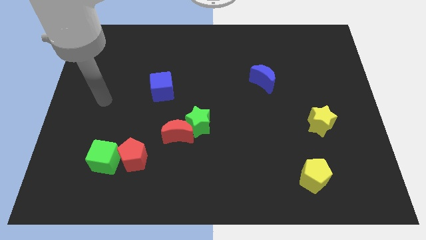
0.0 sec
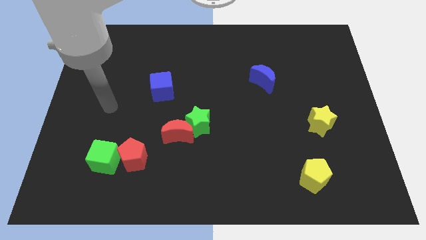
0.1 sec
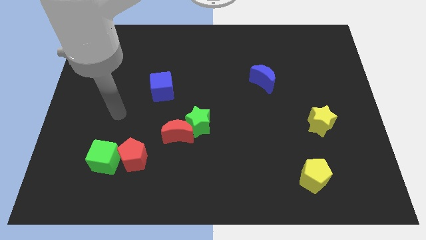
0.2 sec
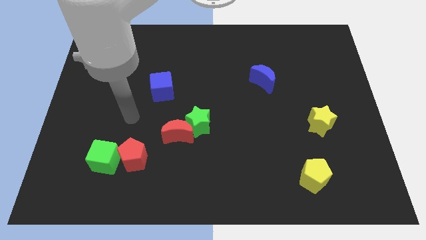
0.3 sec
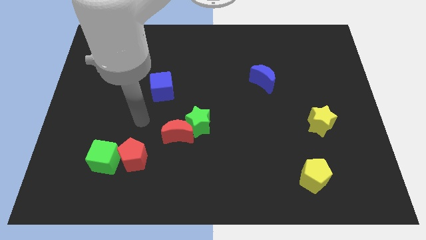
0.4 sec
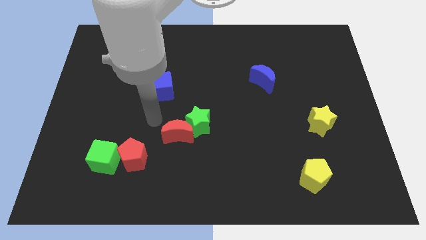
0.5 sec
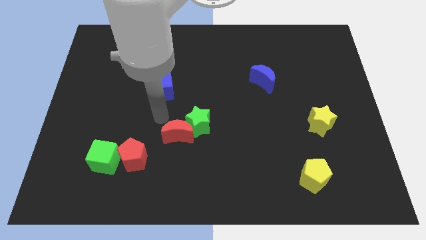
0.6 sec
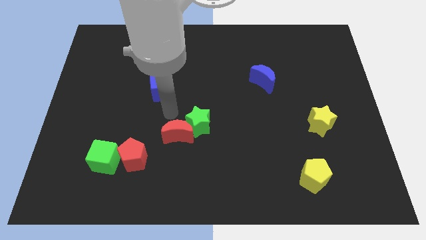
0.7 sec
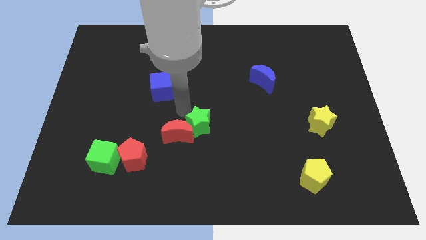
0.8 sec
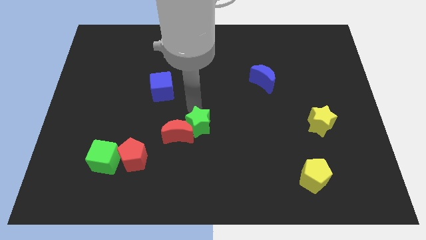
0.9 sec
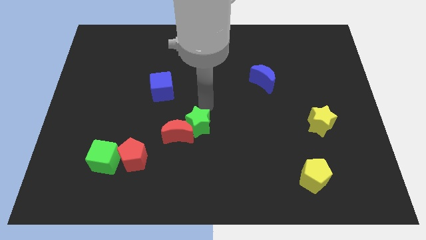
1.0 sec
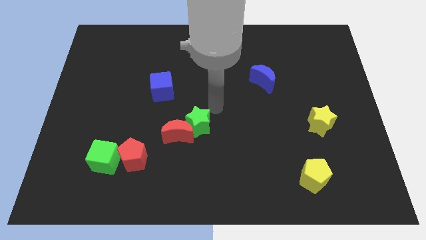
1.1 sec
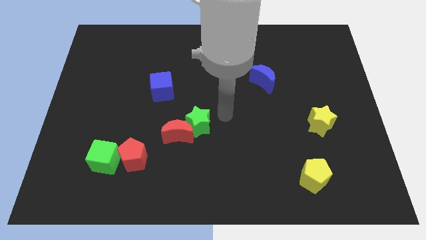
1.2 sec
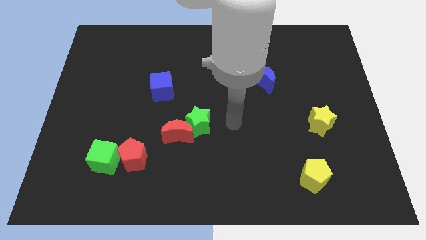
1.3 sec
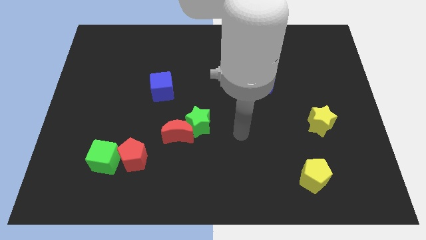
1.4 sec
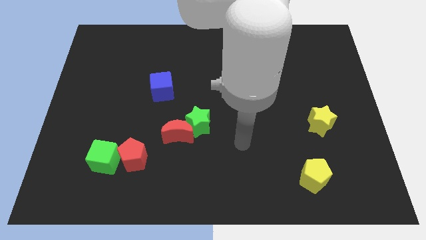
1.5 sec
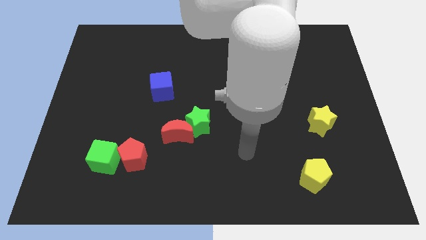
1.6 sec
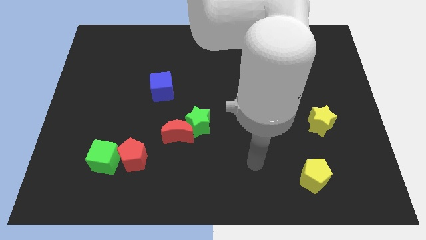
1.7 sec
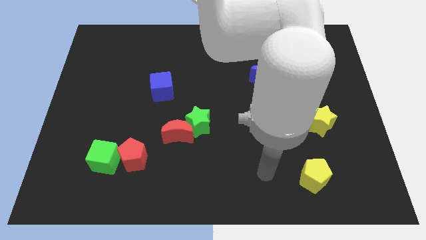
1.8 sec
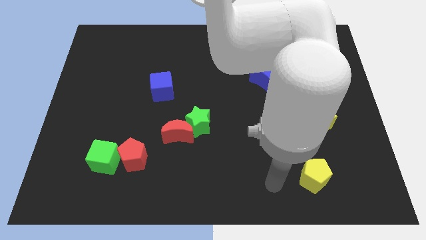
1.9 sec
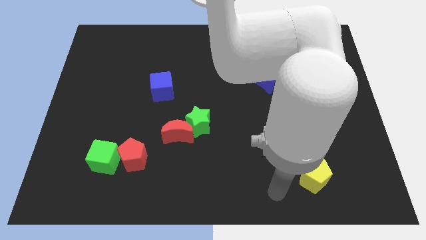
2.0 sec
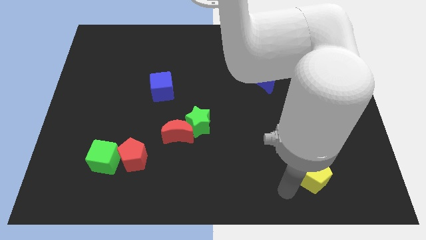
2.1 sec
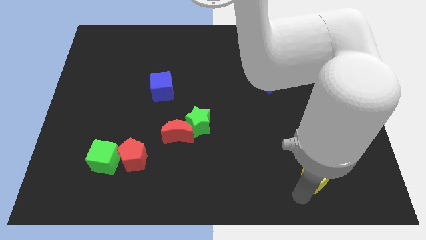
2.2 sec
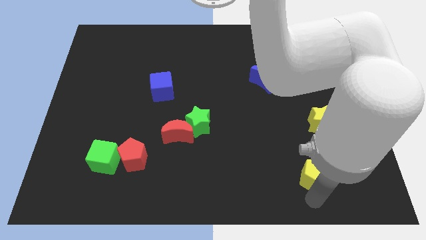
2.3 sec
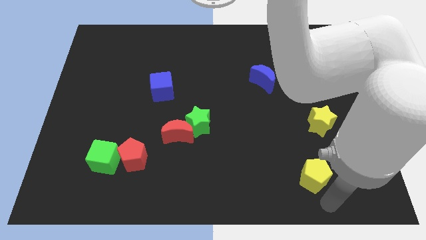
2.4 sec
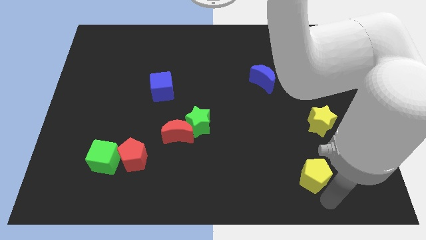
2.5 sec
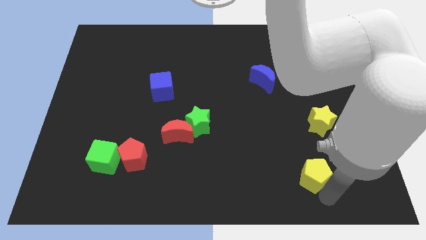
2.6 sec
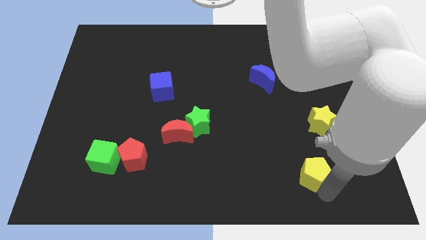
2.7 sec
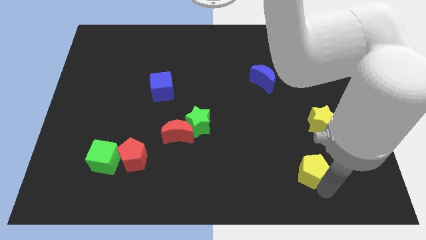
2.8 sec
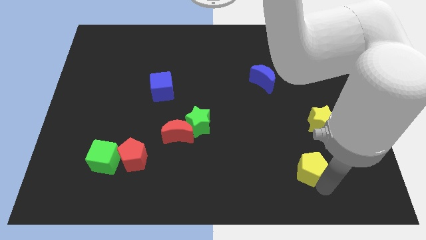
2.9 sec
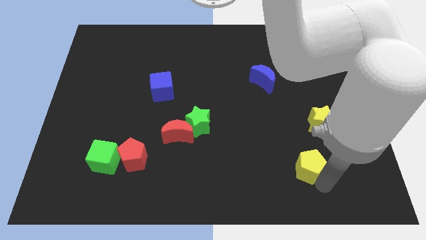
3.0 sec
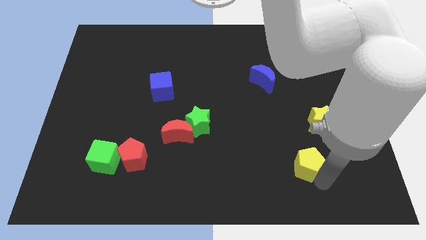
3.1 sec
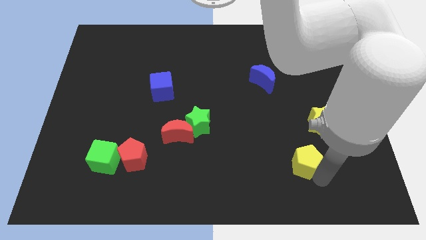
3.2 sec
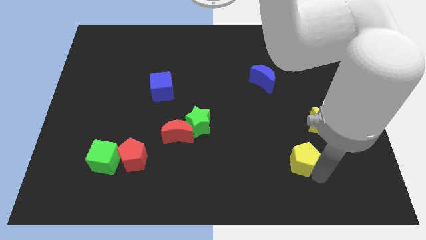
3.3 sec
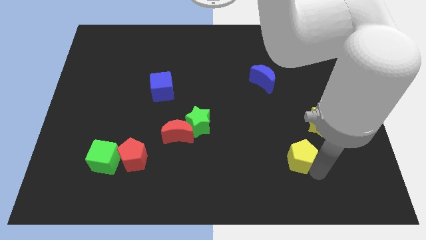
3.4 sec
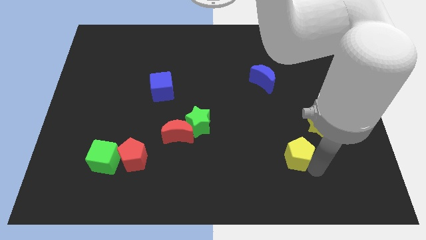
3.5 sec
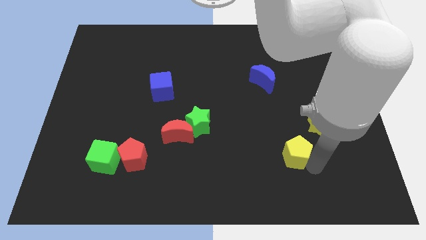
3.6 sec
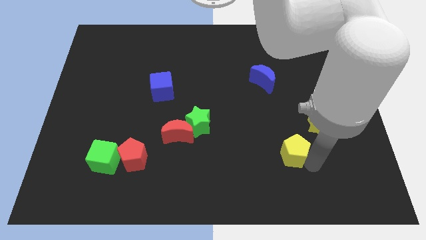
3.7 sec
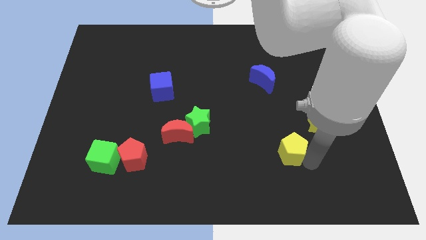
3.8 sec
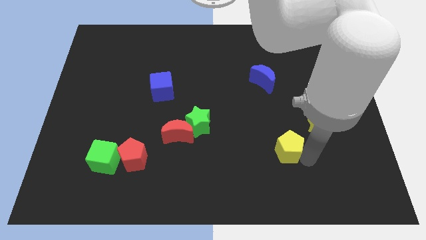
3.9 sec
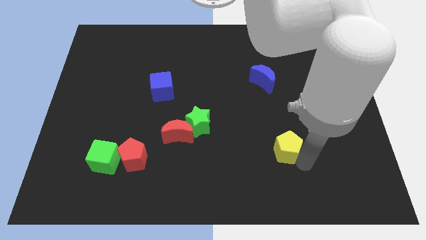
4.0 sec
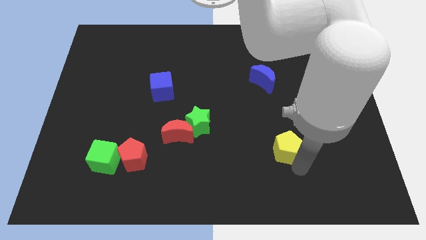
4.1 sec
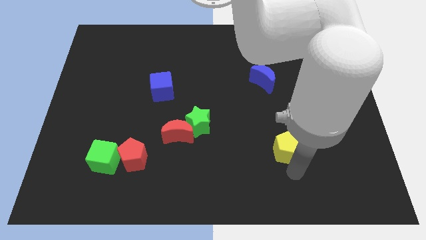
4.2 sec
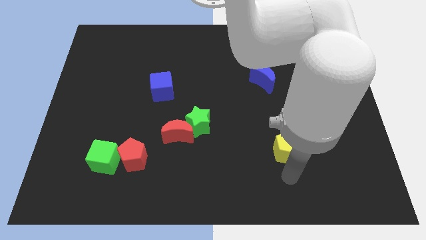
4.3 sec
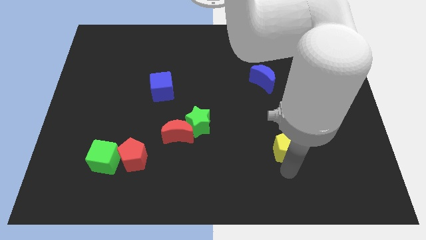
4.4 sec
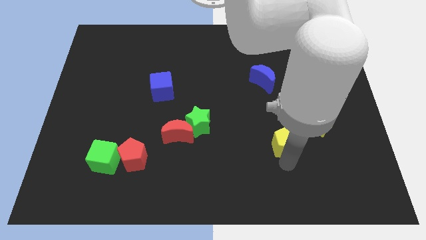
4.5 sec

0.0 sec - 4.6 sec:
slightly move the yellow pentagon upwards

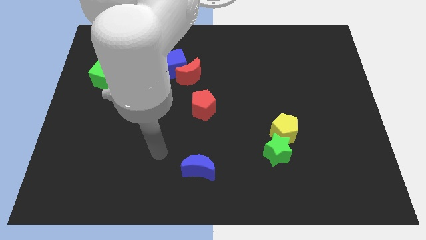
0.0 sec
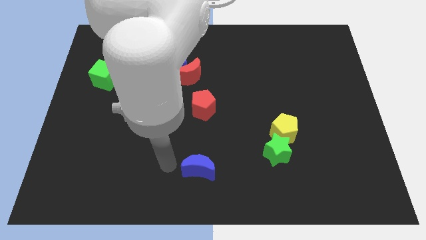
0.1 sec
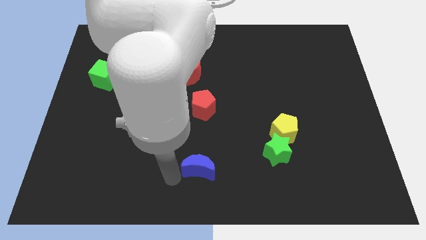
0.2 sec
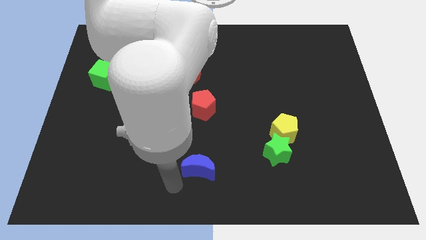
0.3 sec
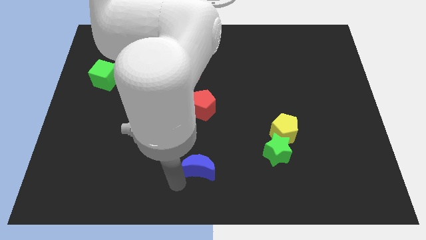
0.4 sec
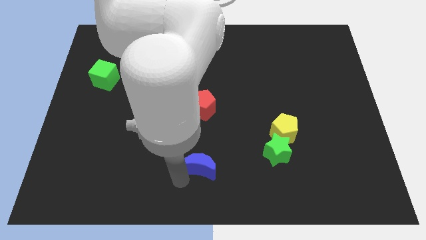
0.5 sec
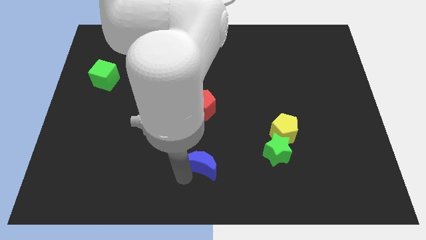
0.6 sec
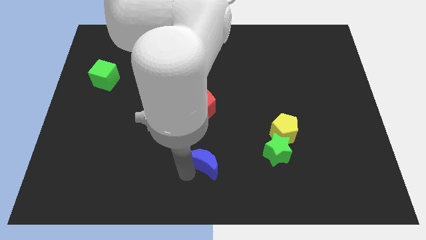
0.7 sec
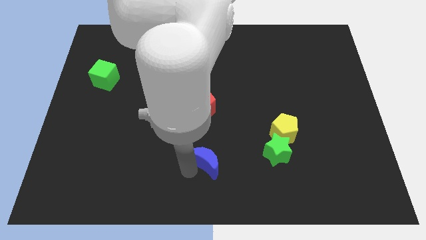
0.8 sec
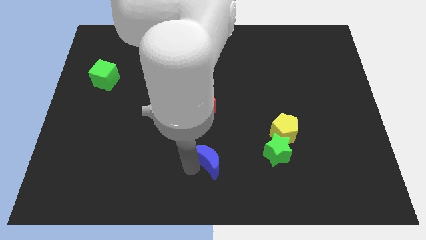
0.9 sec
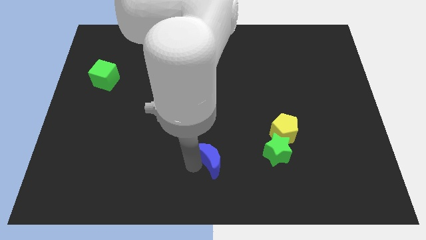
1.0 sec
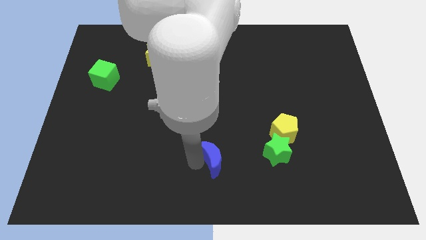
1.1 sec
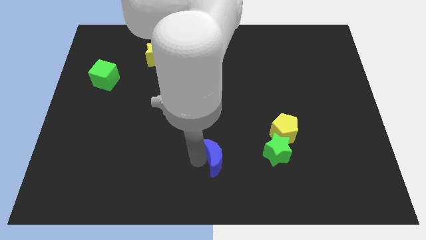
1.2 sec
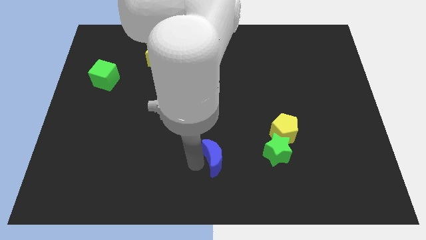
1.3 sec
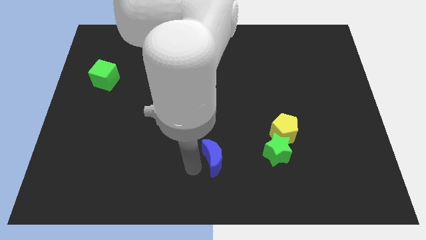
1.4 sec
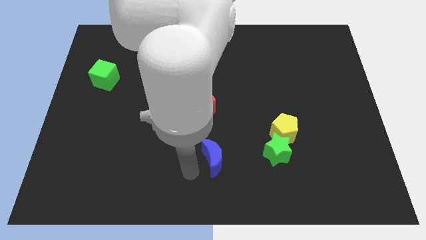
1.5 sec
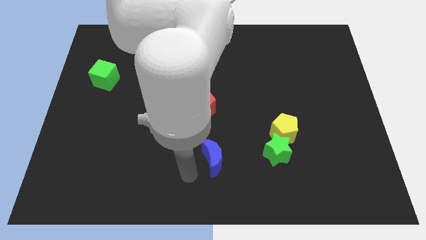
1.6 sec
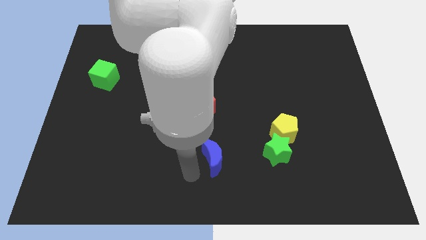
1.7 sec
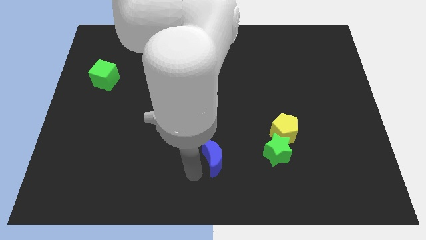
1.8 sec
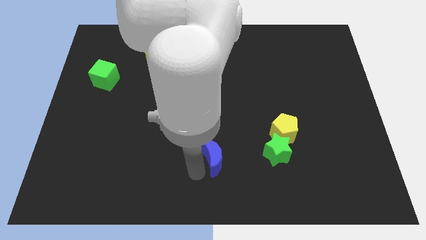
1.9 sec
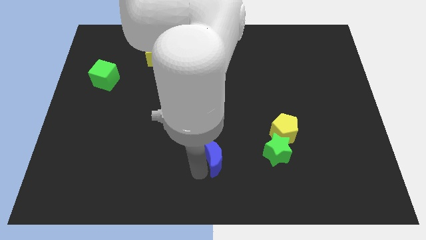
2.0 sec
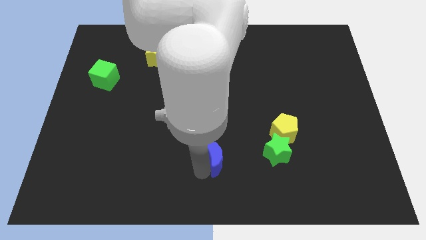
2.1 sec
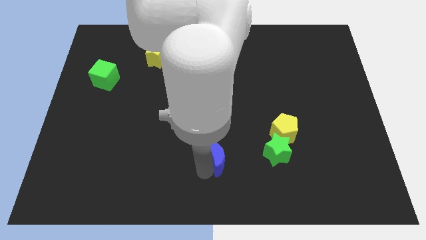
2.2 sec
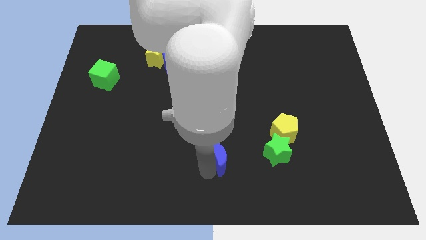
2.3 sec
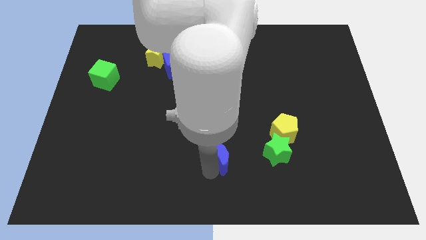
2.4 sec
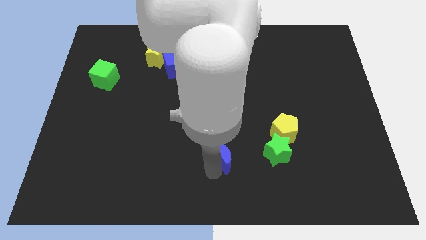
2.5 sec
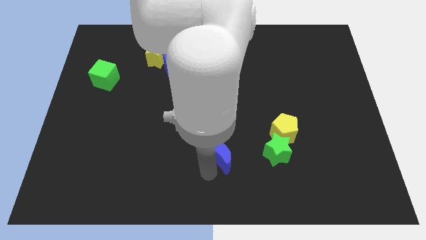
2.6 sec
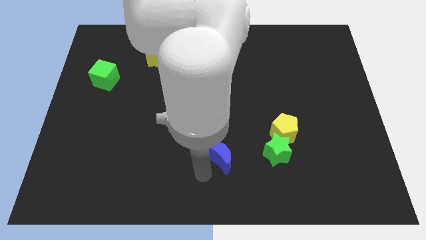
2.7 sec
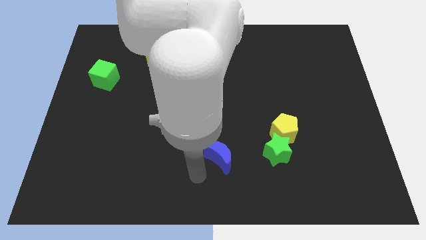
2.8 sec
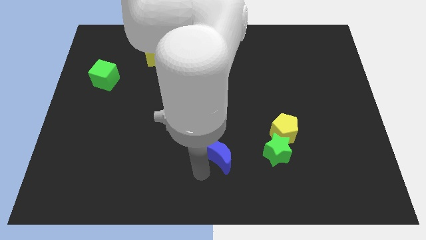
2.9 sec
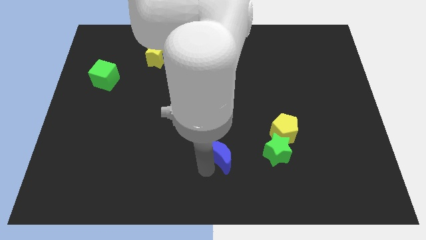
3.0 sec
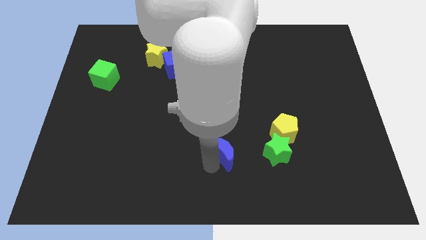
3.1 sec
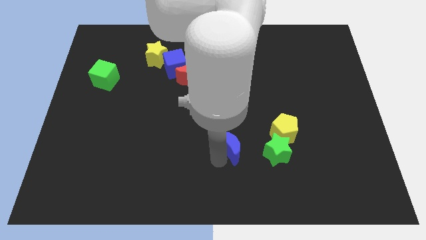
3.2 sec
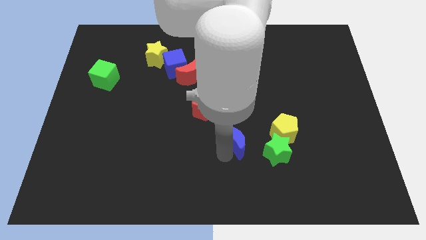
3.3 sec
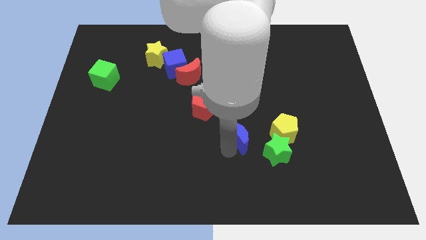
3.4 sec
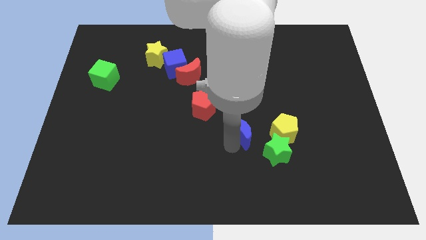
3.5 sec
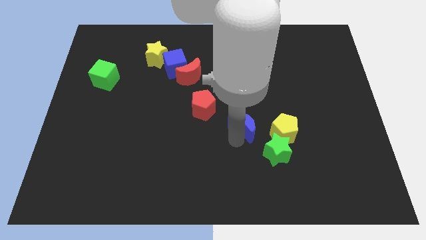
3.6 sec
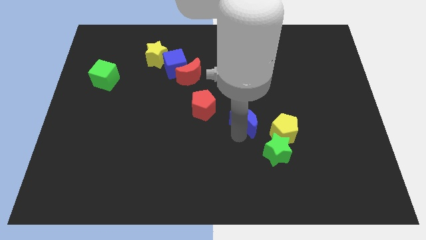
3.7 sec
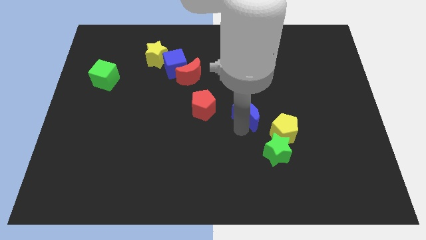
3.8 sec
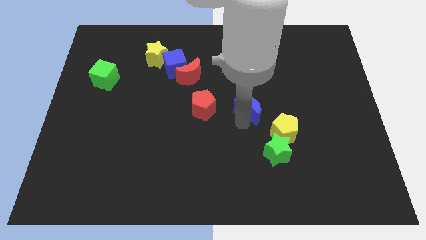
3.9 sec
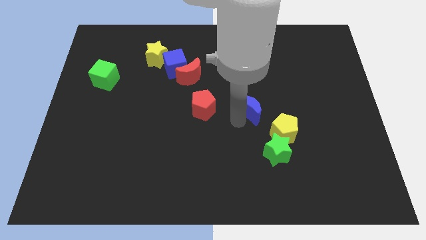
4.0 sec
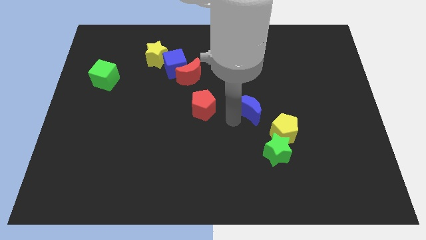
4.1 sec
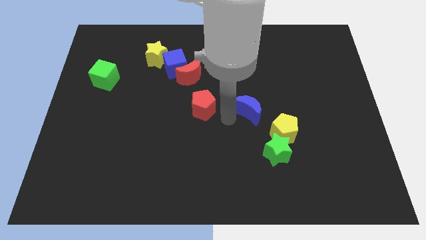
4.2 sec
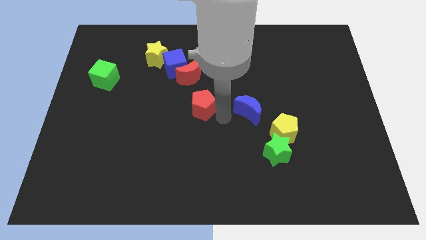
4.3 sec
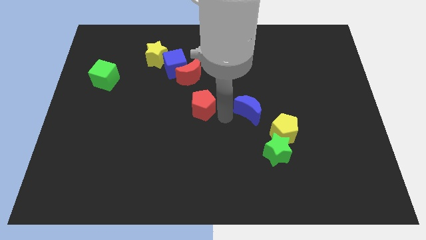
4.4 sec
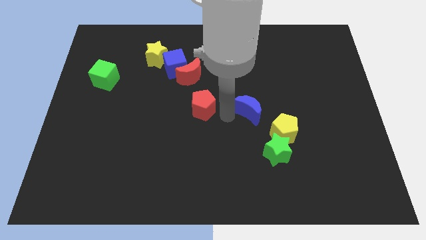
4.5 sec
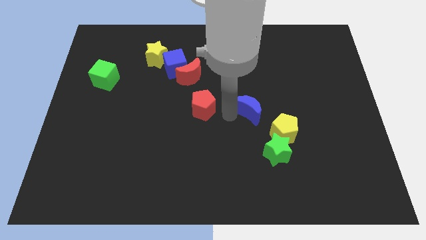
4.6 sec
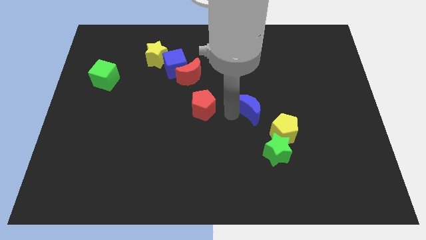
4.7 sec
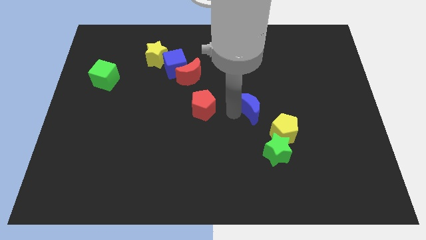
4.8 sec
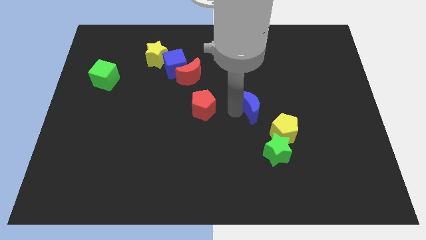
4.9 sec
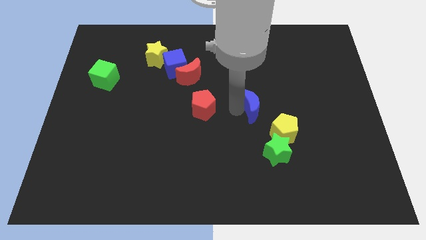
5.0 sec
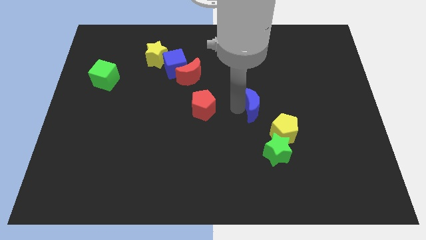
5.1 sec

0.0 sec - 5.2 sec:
move the blue moon upwards and to the right diagonally
